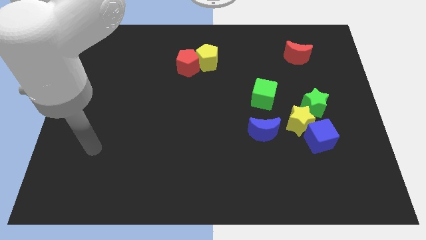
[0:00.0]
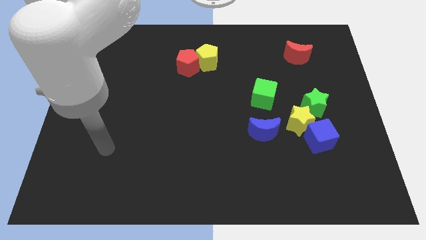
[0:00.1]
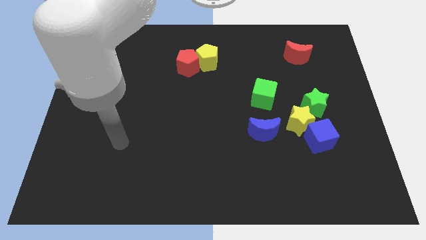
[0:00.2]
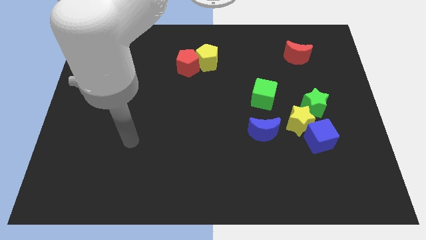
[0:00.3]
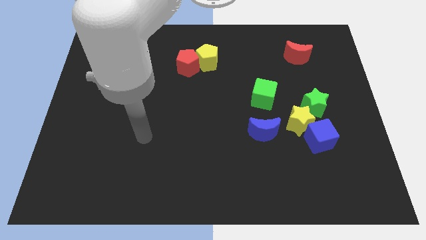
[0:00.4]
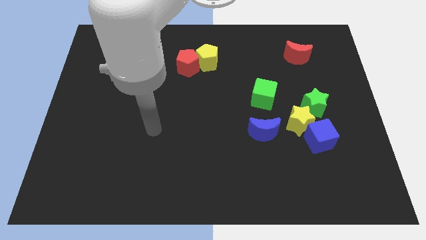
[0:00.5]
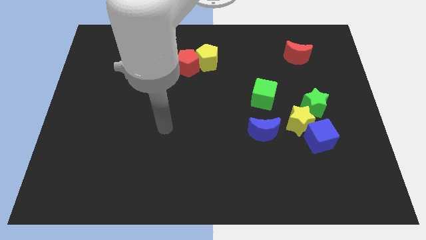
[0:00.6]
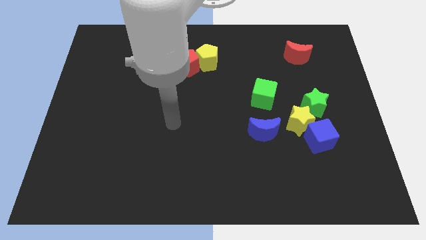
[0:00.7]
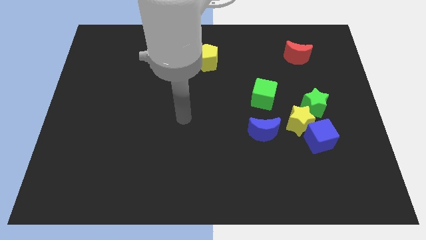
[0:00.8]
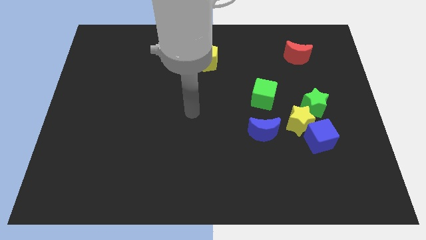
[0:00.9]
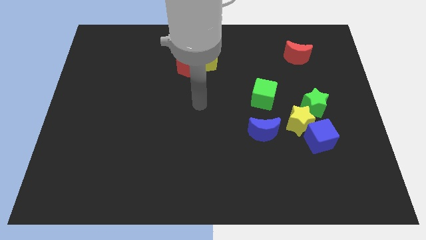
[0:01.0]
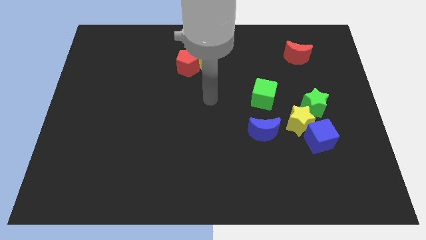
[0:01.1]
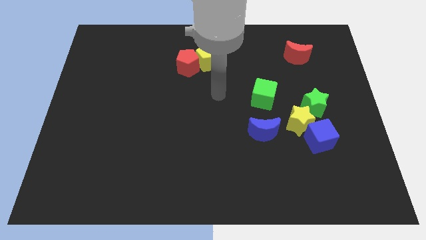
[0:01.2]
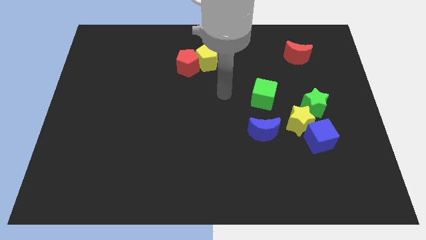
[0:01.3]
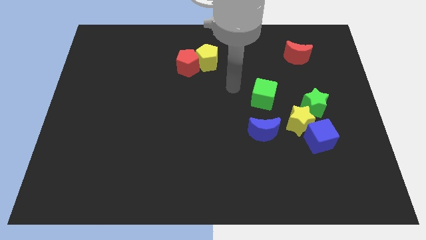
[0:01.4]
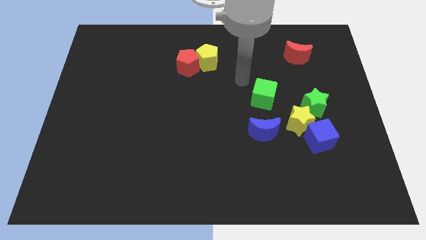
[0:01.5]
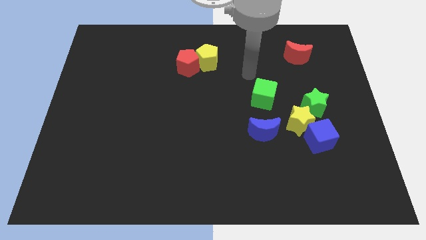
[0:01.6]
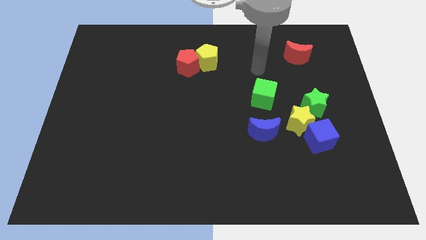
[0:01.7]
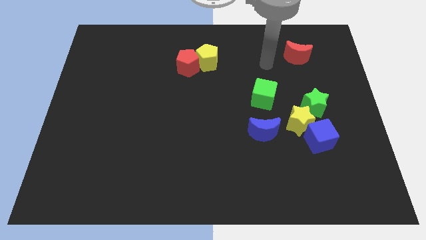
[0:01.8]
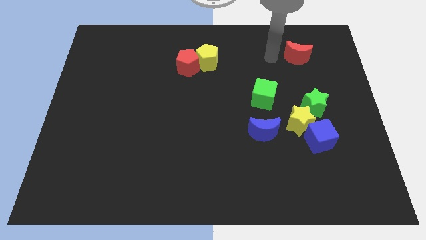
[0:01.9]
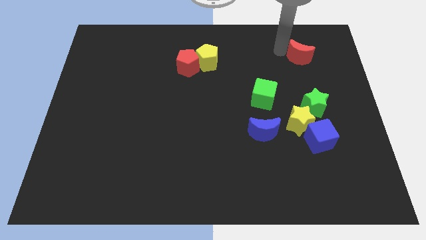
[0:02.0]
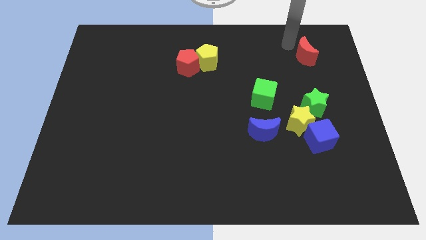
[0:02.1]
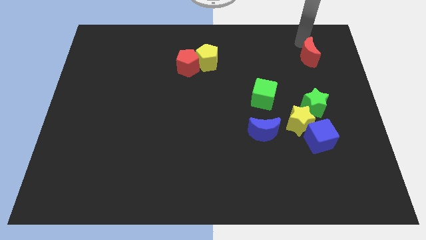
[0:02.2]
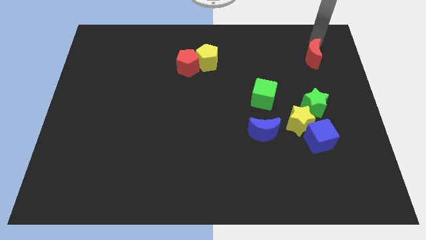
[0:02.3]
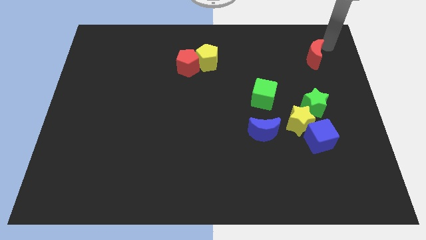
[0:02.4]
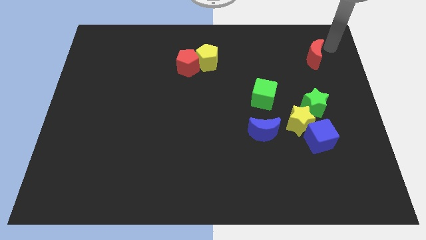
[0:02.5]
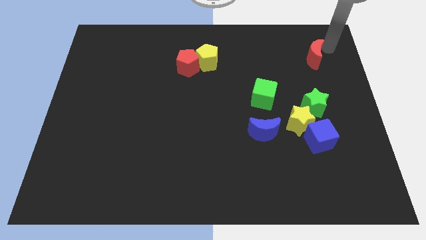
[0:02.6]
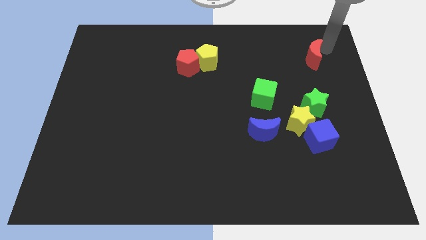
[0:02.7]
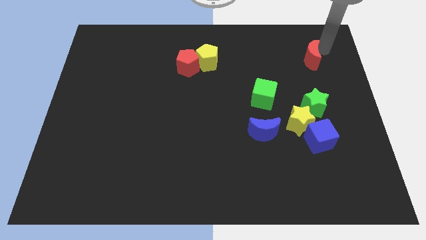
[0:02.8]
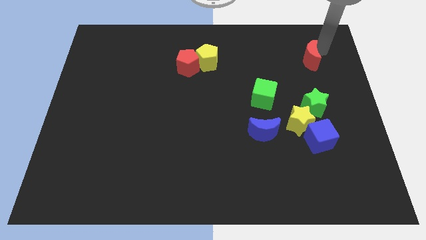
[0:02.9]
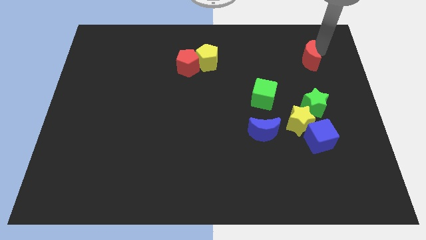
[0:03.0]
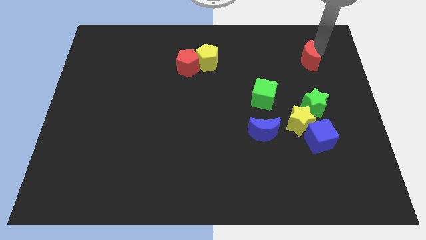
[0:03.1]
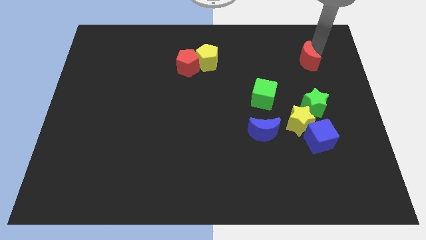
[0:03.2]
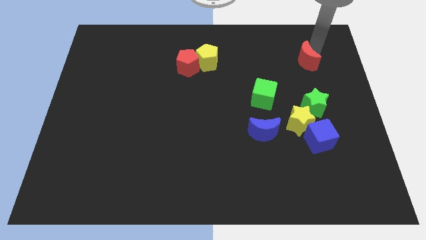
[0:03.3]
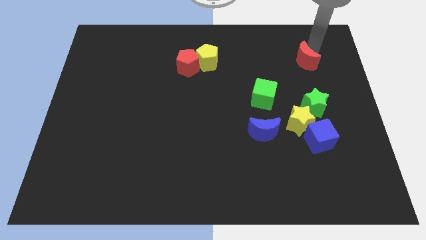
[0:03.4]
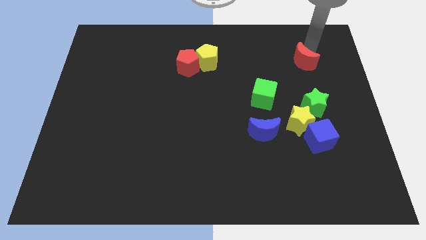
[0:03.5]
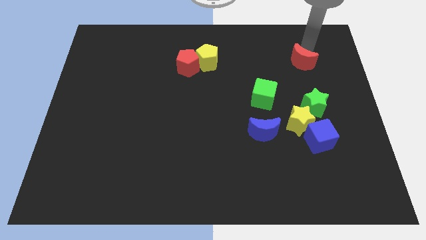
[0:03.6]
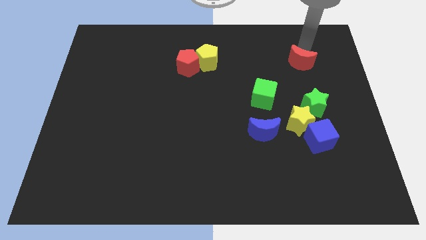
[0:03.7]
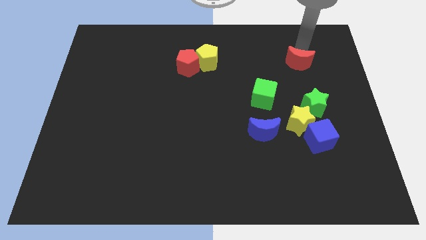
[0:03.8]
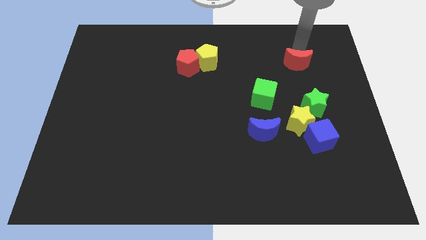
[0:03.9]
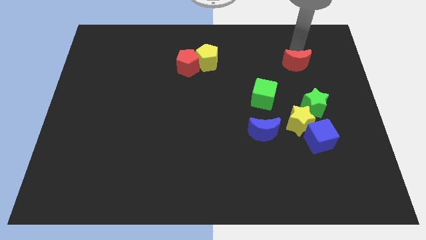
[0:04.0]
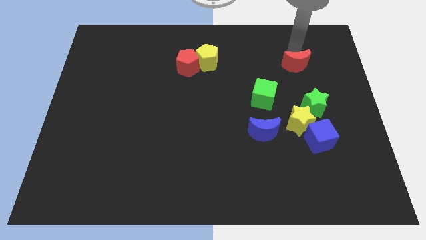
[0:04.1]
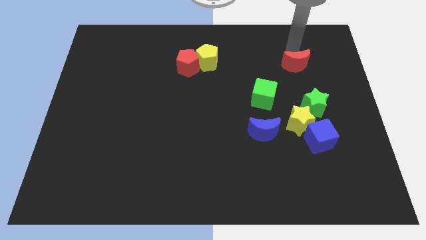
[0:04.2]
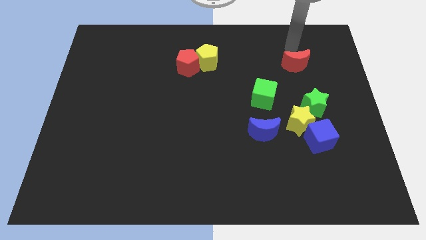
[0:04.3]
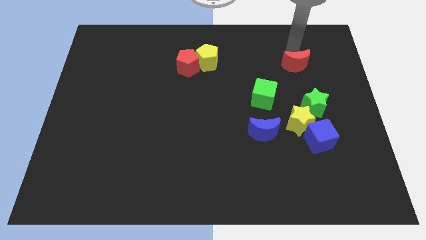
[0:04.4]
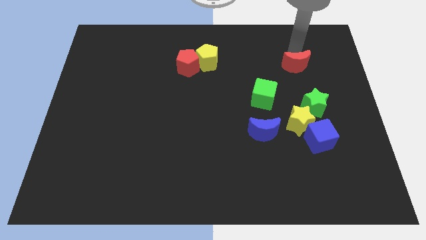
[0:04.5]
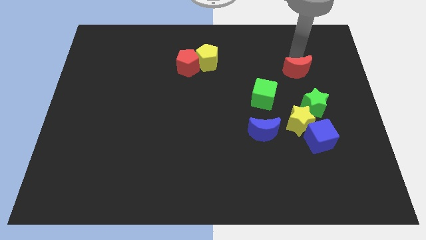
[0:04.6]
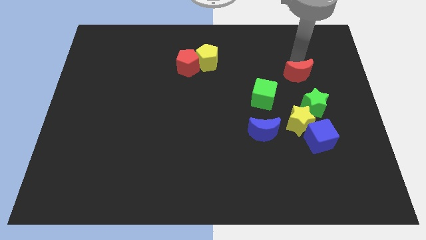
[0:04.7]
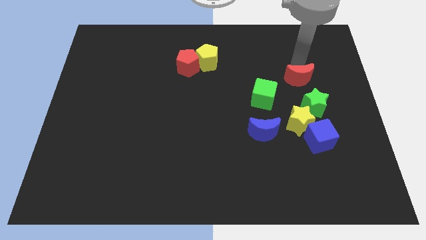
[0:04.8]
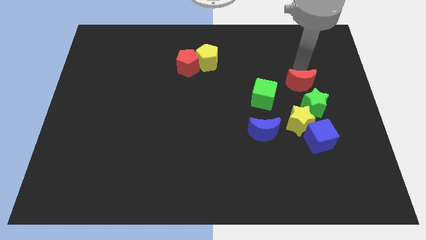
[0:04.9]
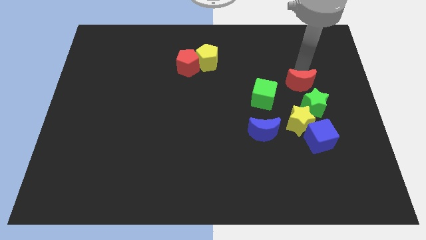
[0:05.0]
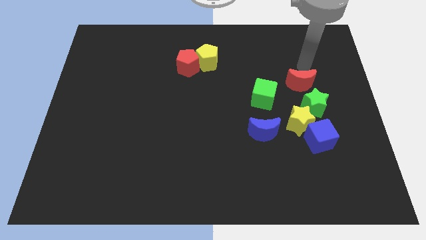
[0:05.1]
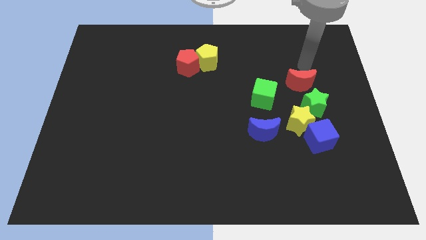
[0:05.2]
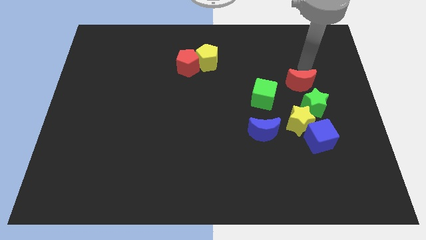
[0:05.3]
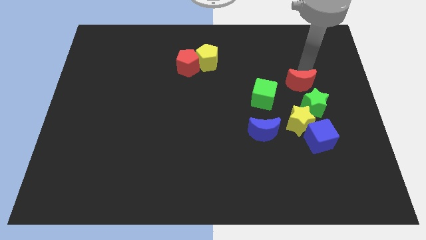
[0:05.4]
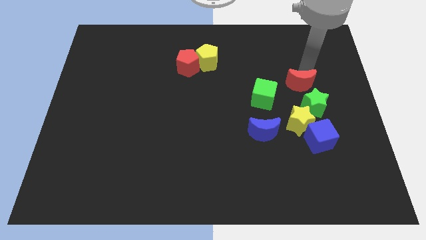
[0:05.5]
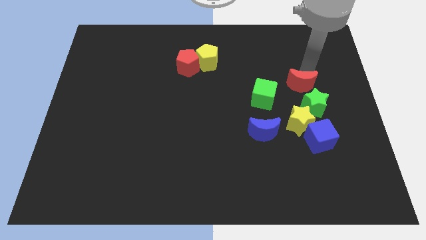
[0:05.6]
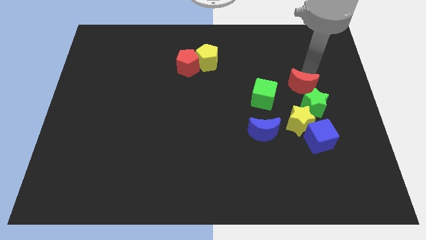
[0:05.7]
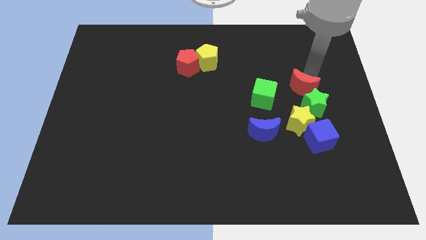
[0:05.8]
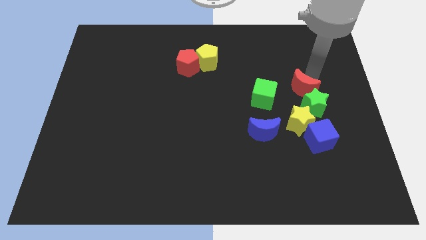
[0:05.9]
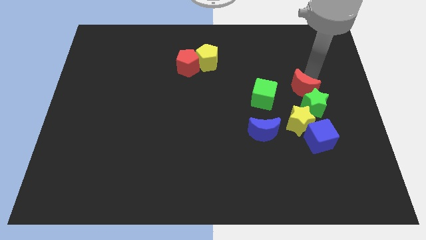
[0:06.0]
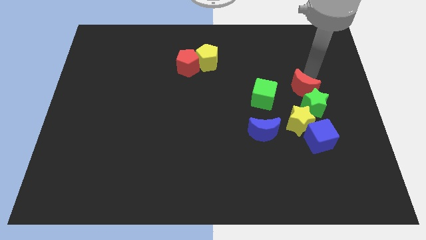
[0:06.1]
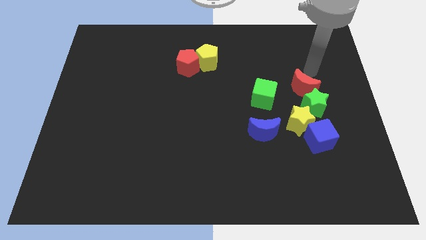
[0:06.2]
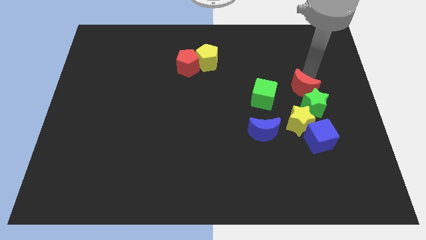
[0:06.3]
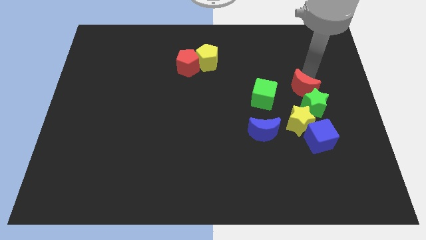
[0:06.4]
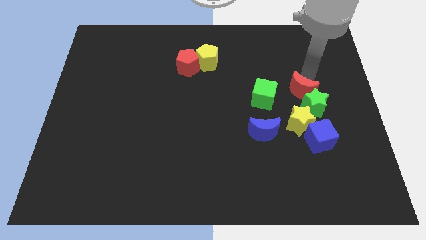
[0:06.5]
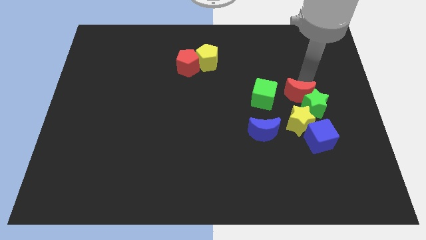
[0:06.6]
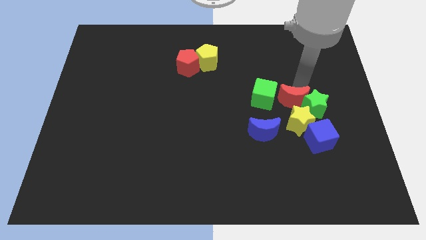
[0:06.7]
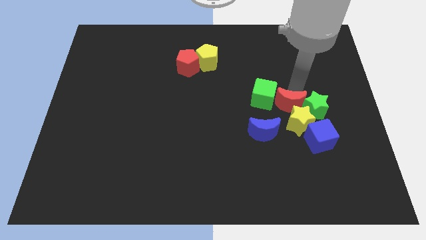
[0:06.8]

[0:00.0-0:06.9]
slide the red moon close to the yellow star
